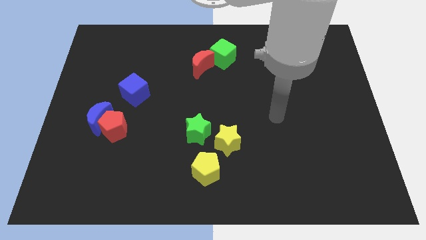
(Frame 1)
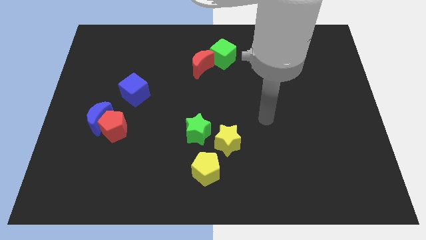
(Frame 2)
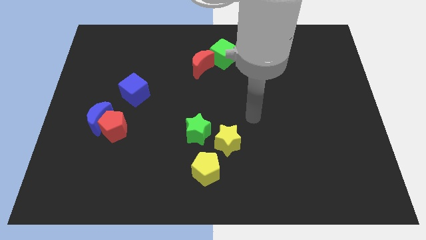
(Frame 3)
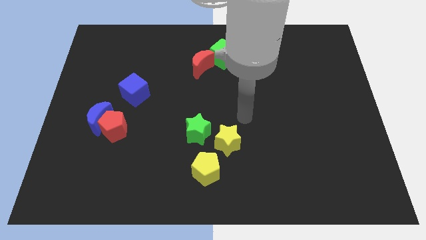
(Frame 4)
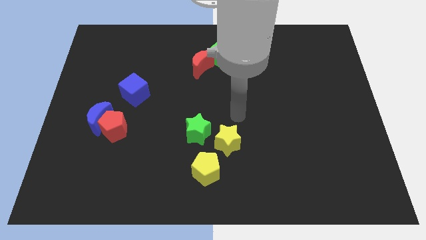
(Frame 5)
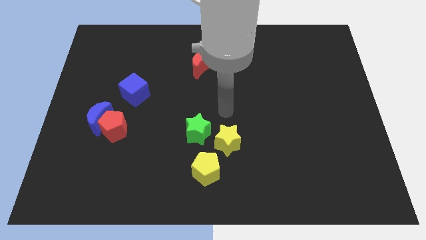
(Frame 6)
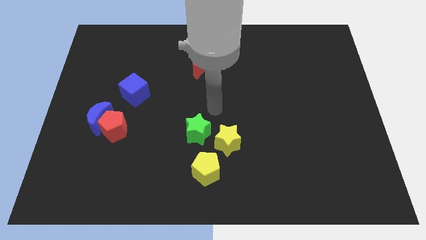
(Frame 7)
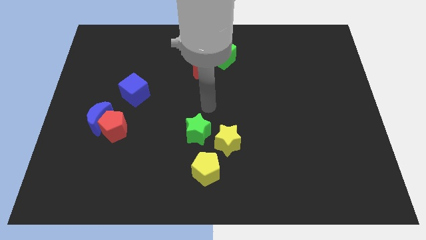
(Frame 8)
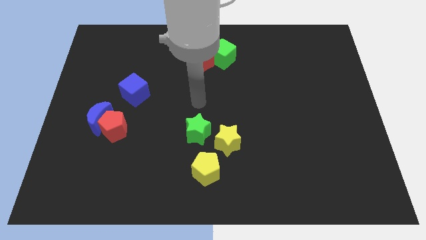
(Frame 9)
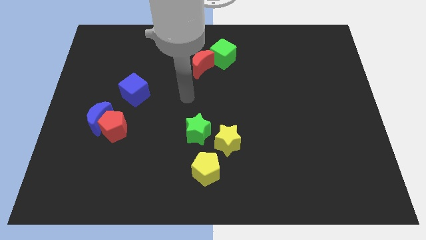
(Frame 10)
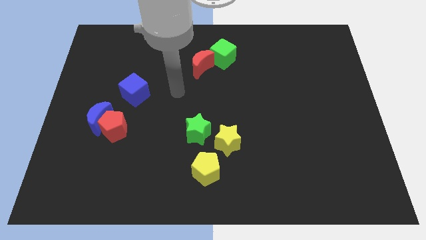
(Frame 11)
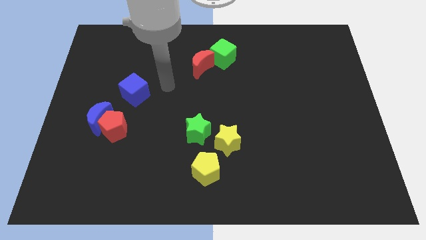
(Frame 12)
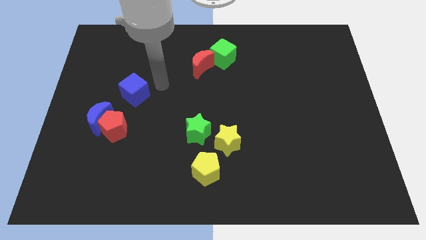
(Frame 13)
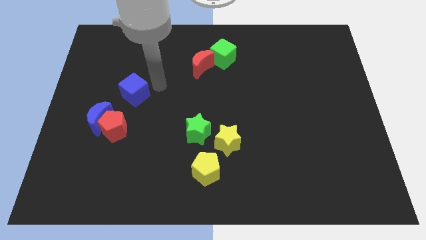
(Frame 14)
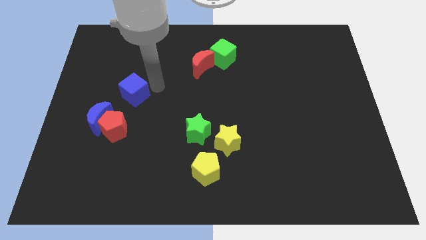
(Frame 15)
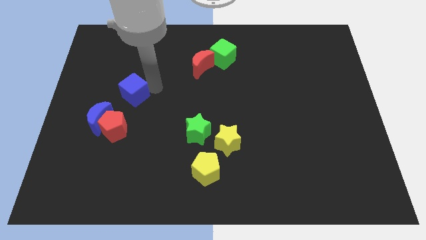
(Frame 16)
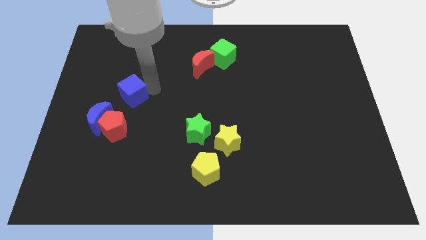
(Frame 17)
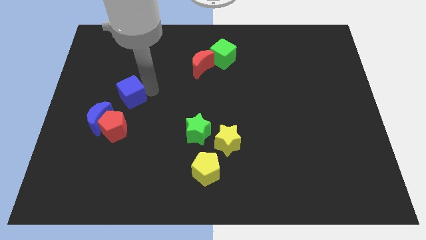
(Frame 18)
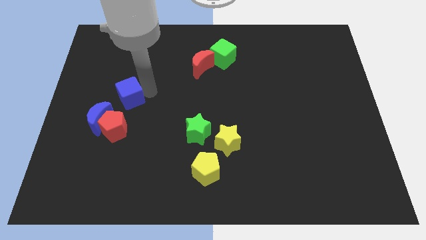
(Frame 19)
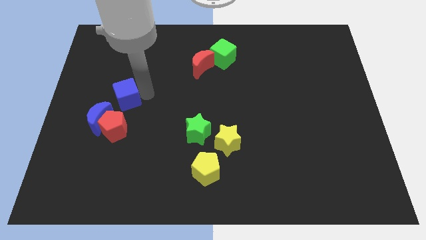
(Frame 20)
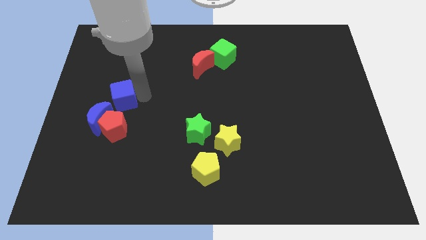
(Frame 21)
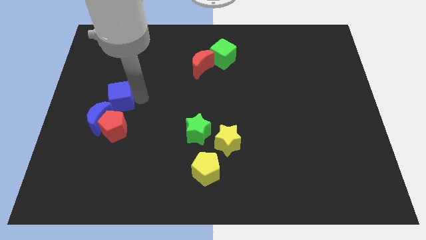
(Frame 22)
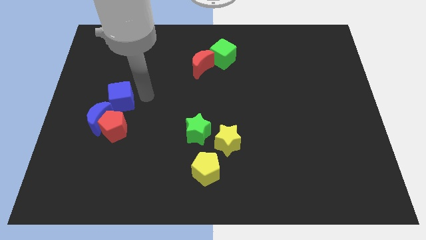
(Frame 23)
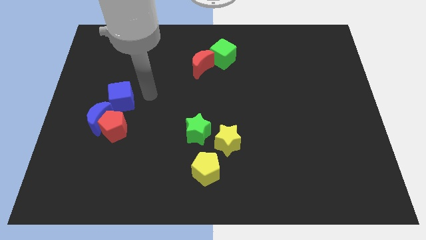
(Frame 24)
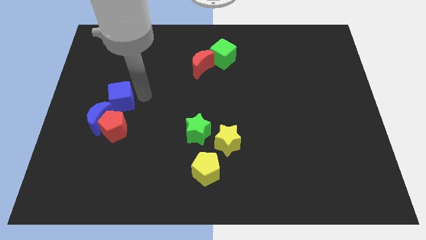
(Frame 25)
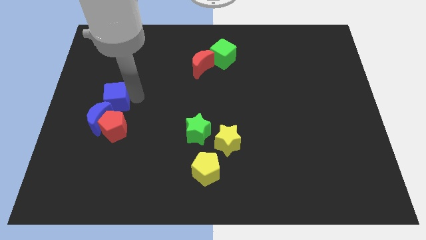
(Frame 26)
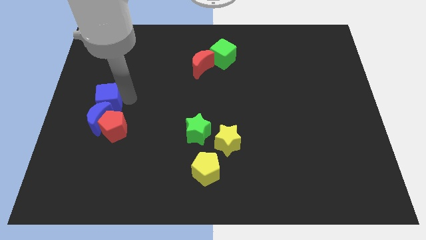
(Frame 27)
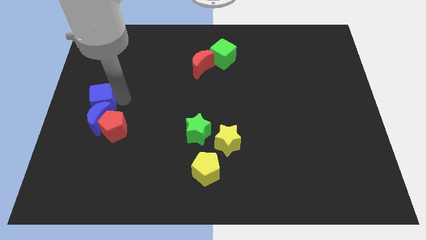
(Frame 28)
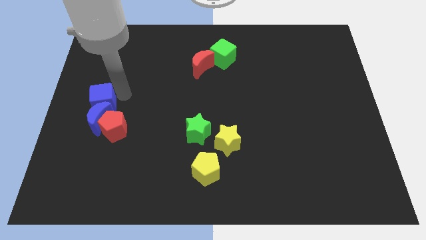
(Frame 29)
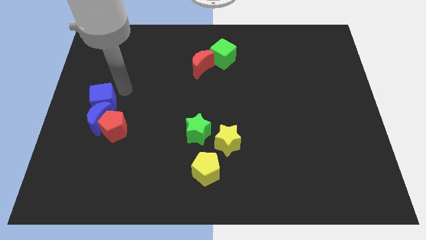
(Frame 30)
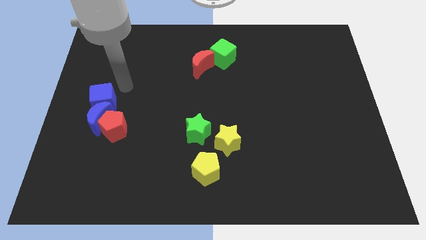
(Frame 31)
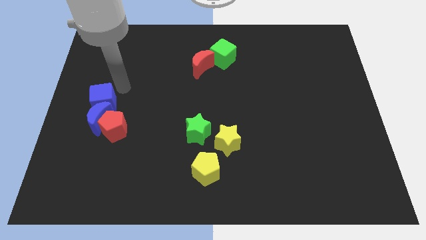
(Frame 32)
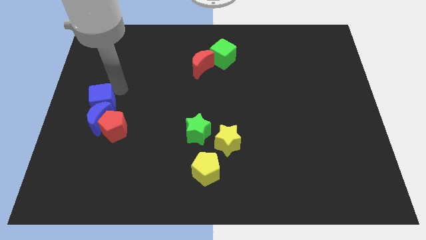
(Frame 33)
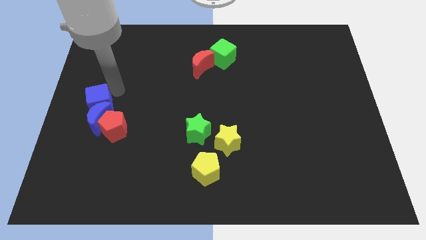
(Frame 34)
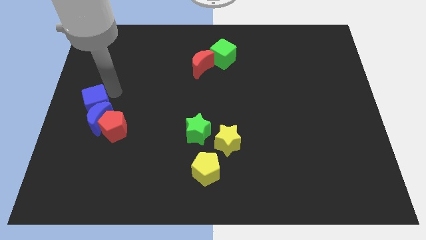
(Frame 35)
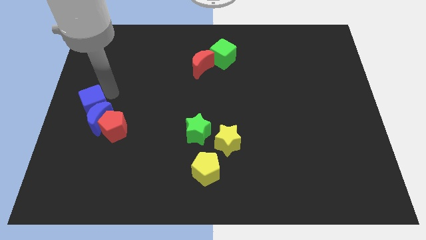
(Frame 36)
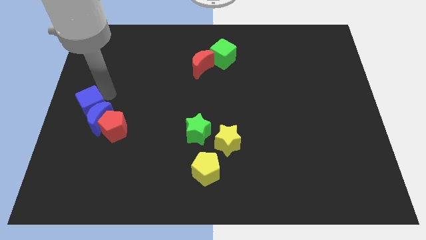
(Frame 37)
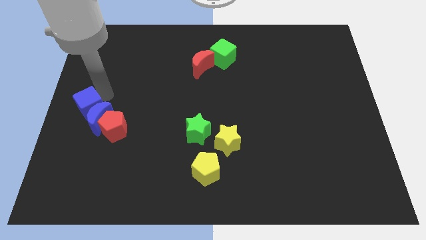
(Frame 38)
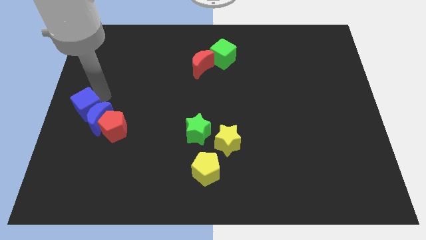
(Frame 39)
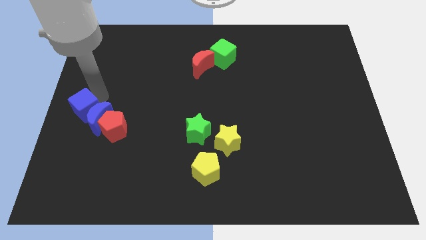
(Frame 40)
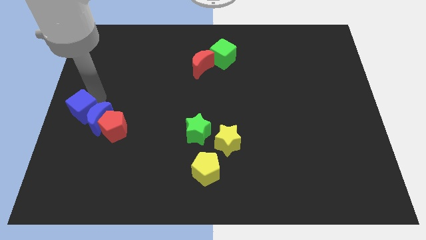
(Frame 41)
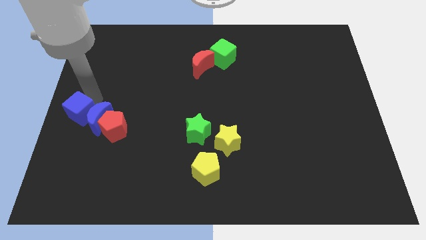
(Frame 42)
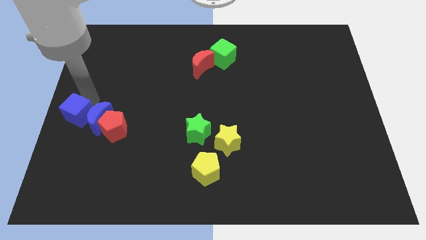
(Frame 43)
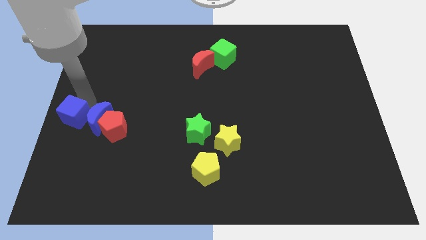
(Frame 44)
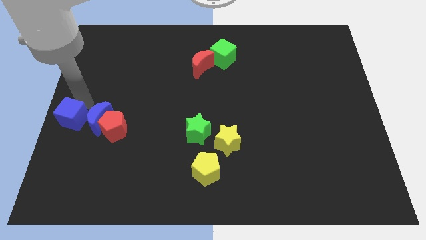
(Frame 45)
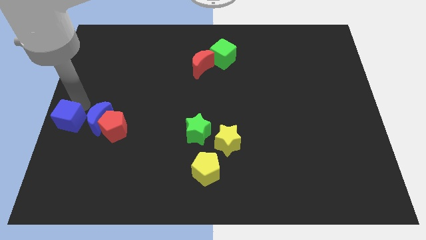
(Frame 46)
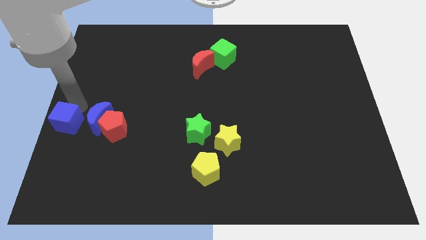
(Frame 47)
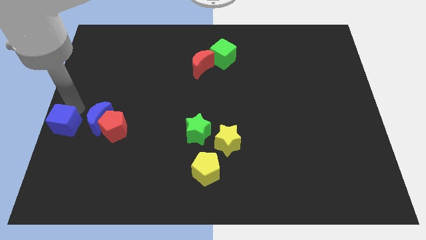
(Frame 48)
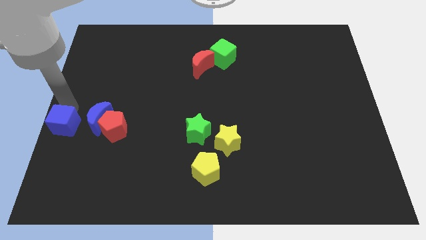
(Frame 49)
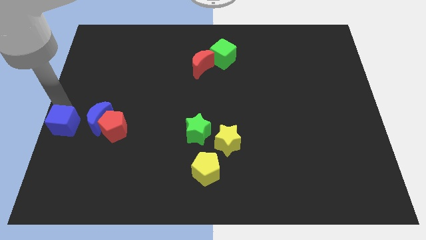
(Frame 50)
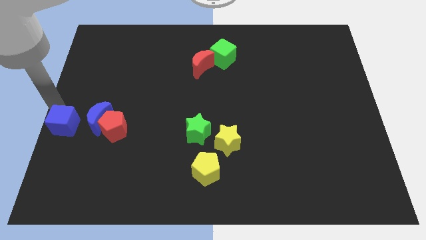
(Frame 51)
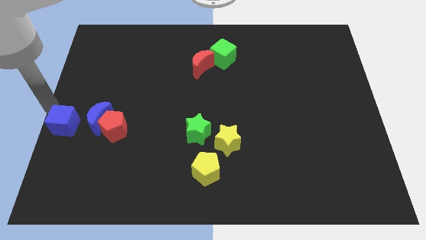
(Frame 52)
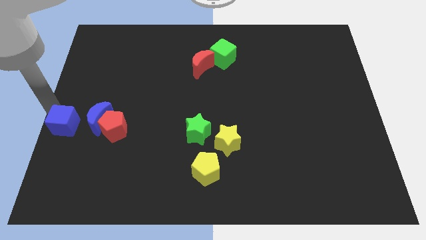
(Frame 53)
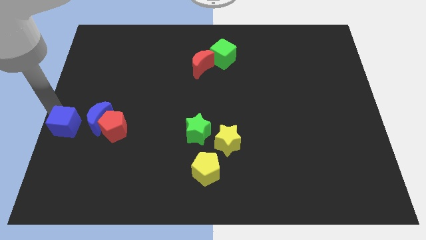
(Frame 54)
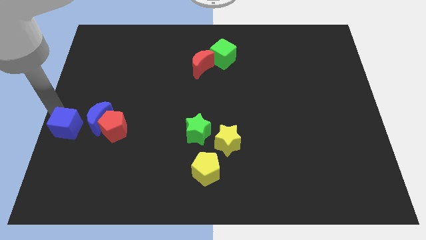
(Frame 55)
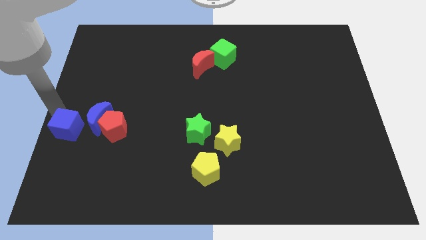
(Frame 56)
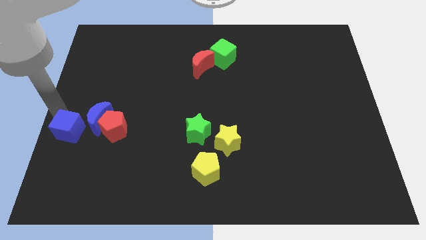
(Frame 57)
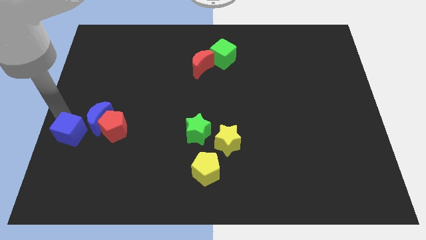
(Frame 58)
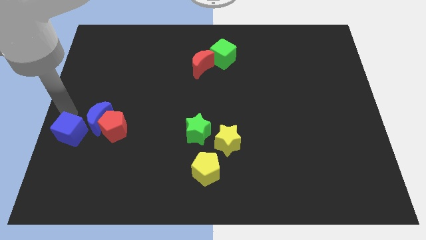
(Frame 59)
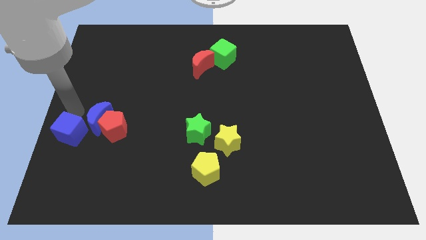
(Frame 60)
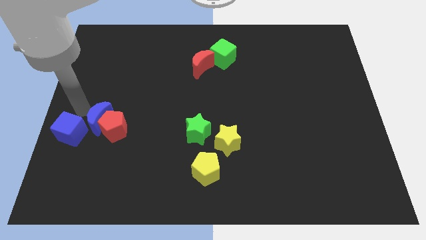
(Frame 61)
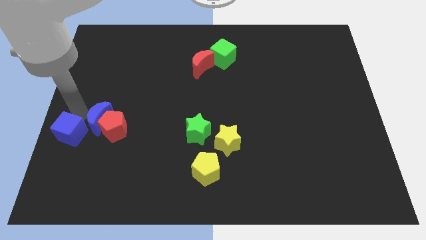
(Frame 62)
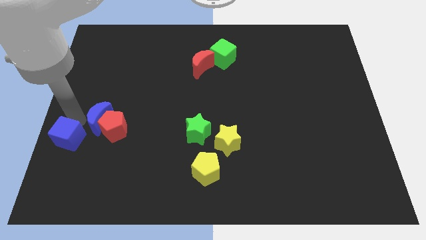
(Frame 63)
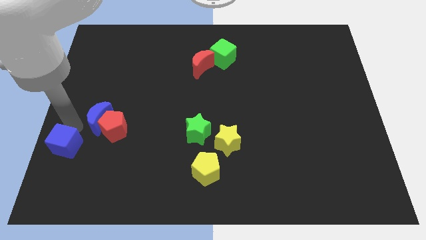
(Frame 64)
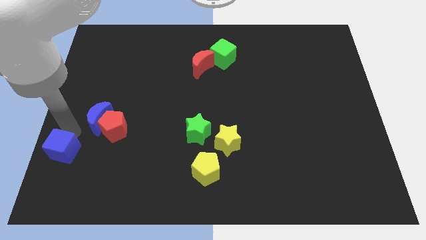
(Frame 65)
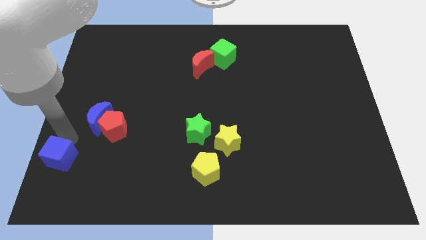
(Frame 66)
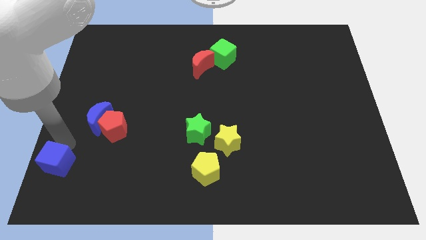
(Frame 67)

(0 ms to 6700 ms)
move the blue cube to the lower left corner
